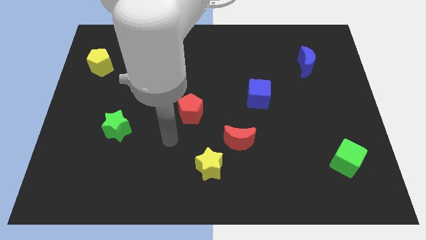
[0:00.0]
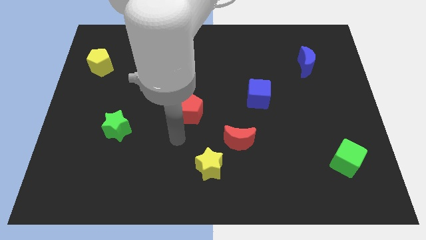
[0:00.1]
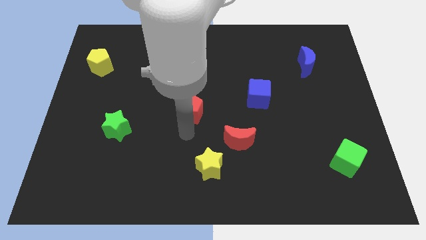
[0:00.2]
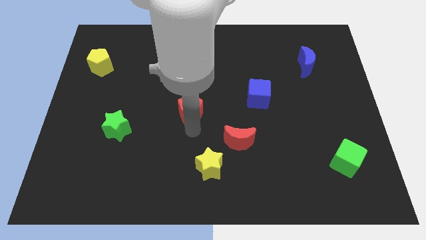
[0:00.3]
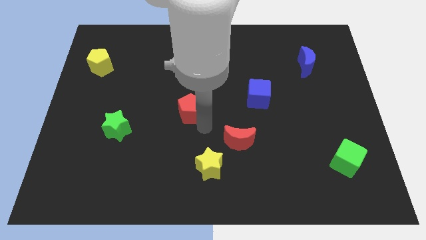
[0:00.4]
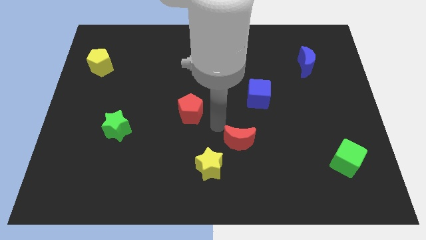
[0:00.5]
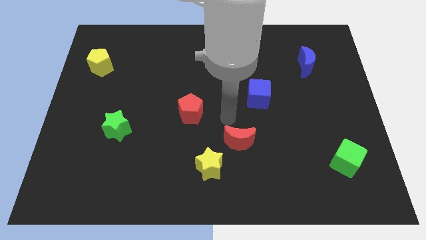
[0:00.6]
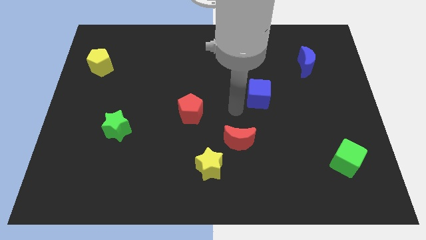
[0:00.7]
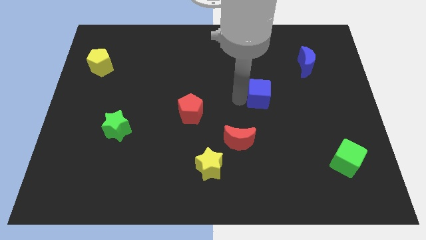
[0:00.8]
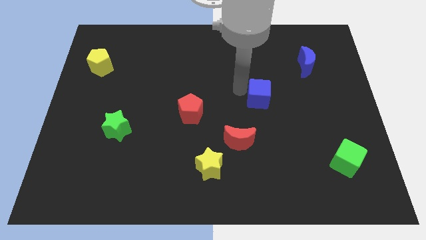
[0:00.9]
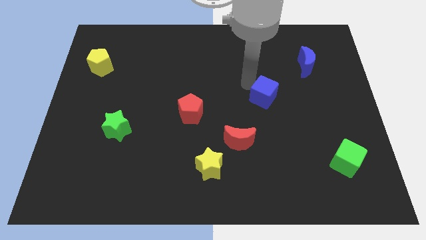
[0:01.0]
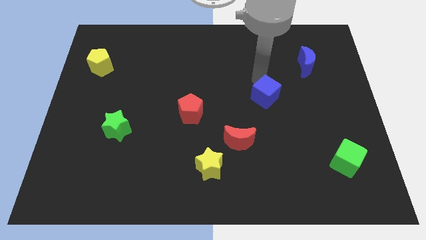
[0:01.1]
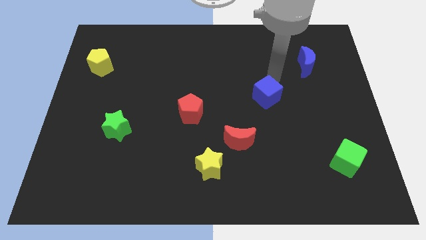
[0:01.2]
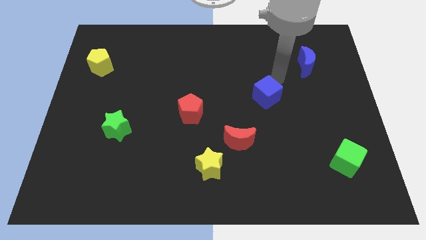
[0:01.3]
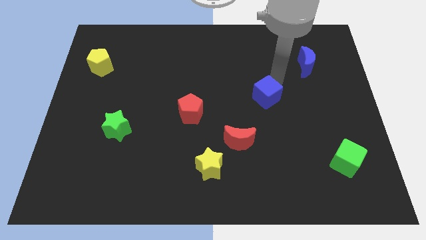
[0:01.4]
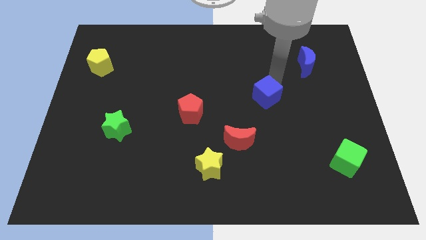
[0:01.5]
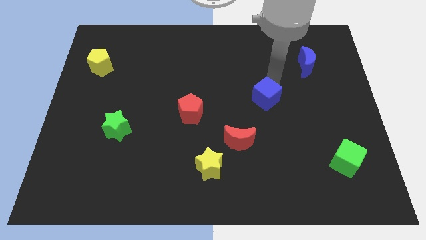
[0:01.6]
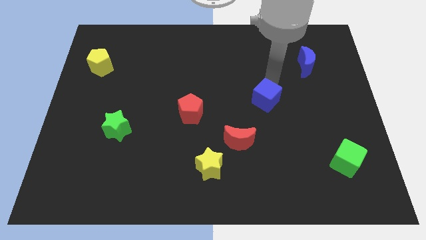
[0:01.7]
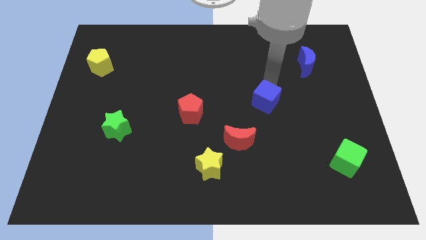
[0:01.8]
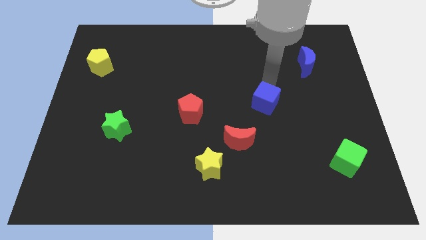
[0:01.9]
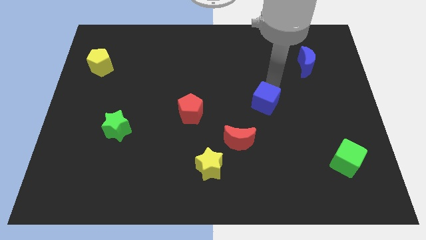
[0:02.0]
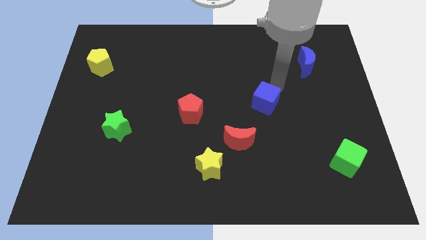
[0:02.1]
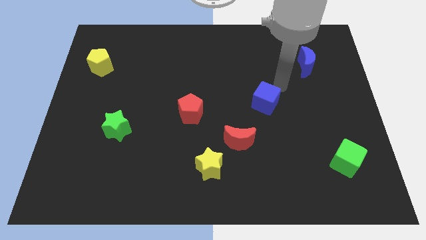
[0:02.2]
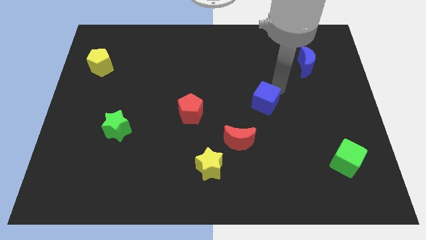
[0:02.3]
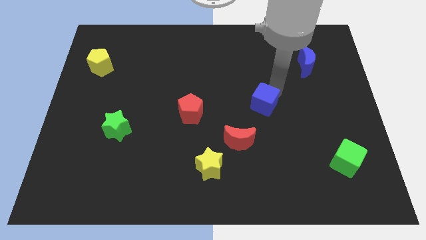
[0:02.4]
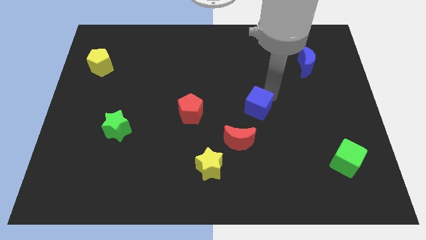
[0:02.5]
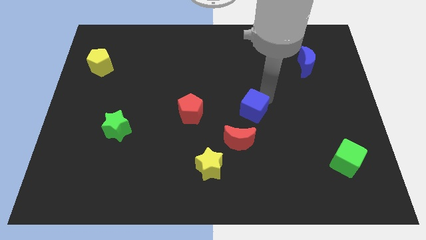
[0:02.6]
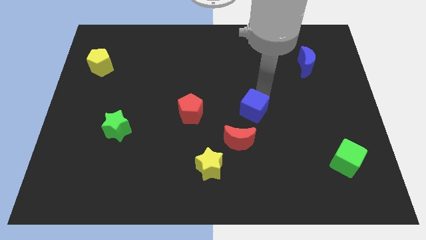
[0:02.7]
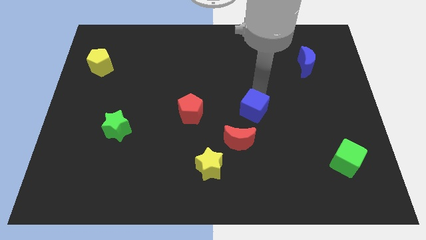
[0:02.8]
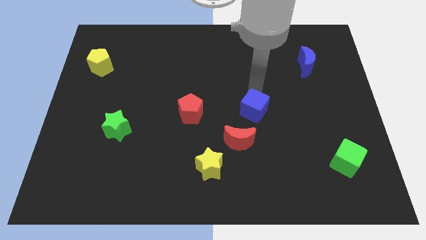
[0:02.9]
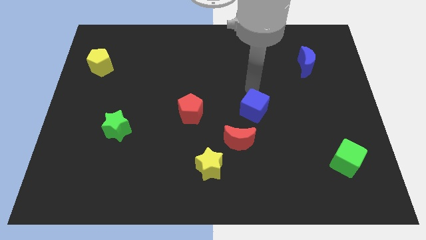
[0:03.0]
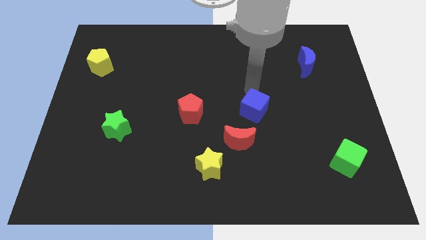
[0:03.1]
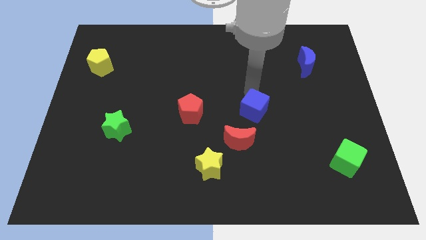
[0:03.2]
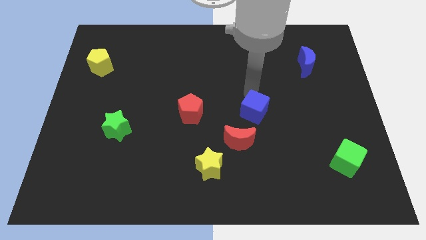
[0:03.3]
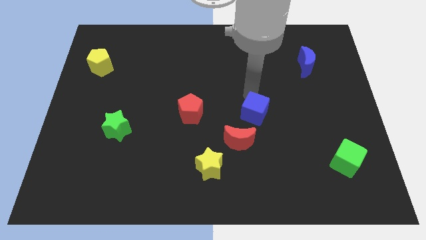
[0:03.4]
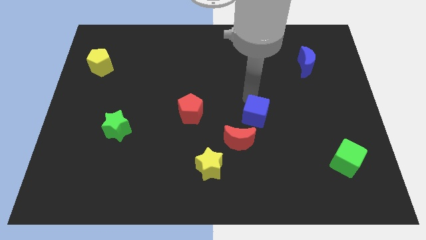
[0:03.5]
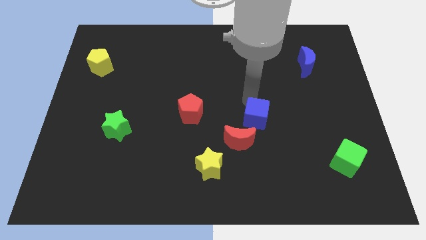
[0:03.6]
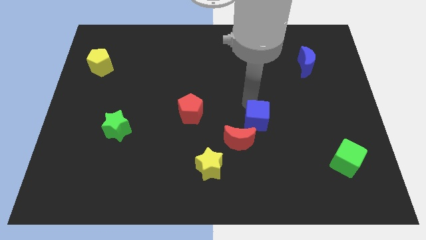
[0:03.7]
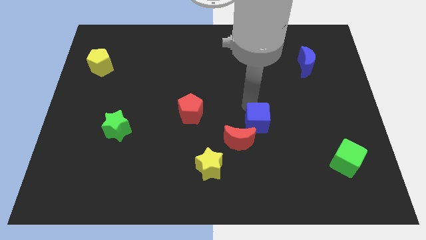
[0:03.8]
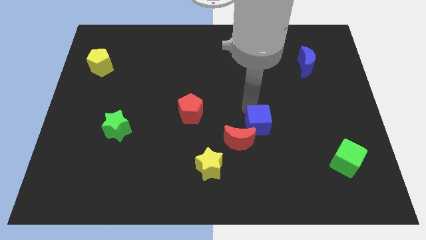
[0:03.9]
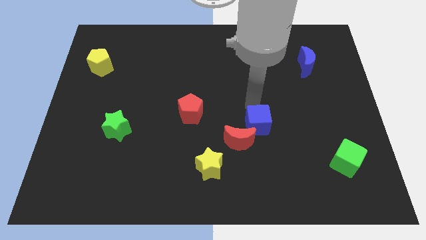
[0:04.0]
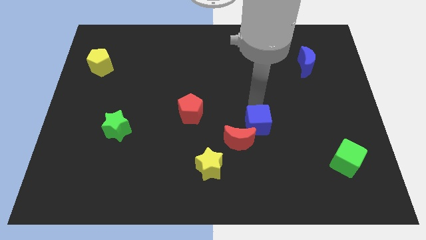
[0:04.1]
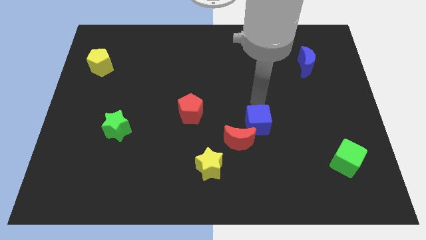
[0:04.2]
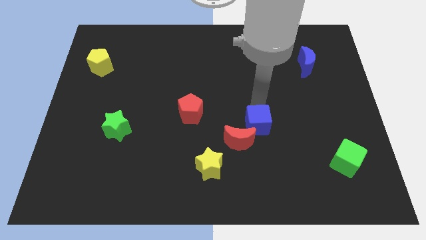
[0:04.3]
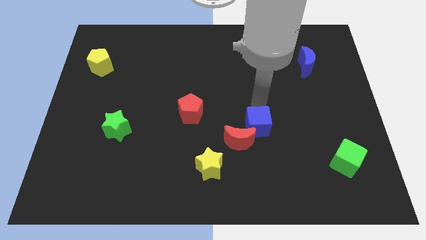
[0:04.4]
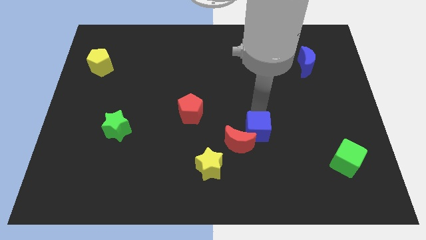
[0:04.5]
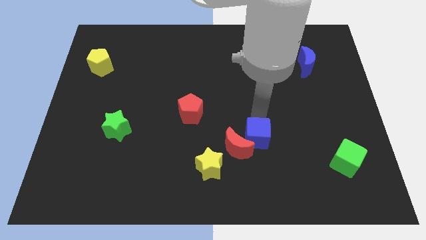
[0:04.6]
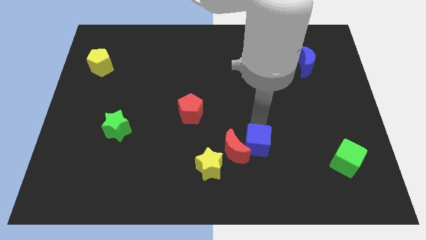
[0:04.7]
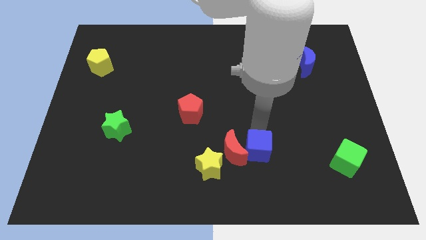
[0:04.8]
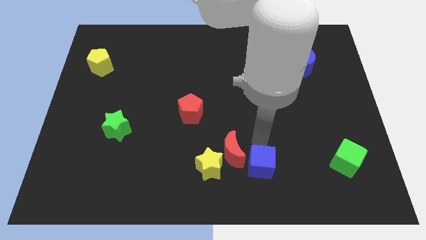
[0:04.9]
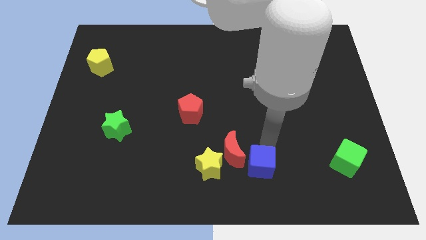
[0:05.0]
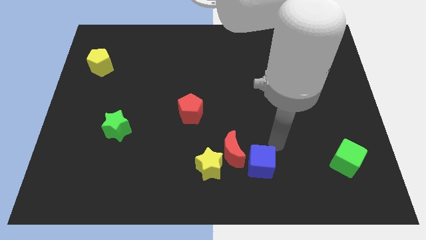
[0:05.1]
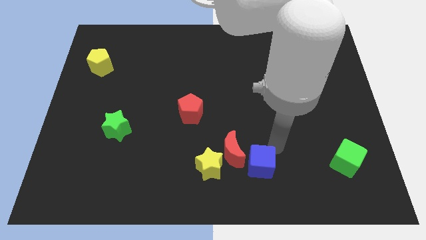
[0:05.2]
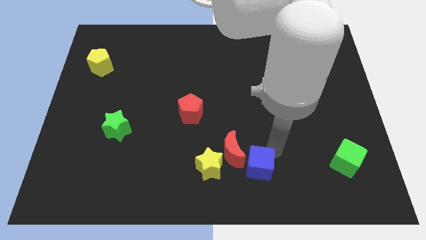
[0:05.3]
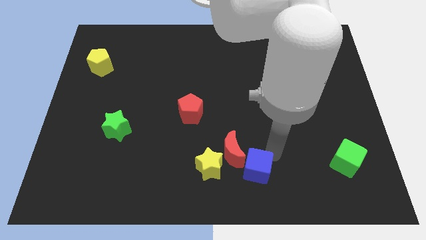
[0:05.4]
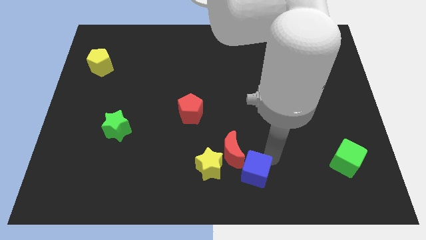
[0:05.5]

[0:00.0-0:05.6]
put the blue cube to the bottom of the red moon

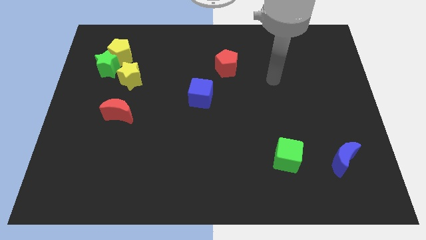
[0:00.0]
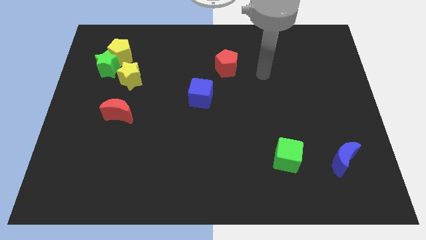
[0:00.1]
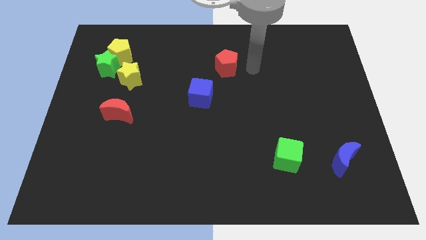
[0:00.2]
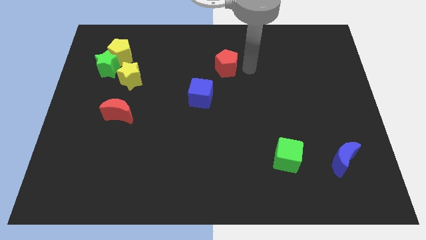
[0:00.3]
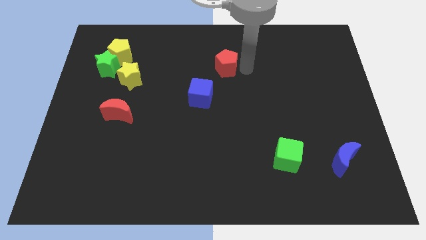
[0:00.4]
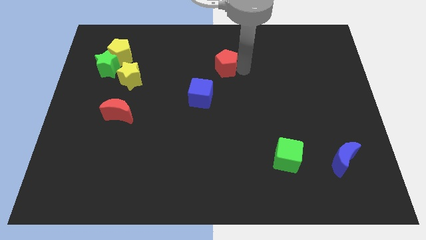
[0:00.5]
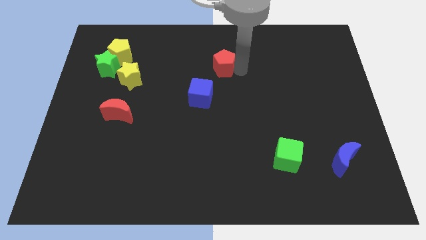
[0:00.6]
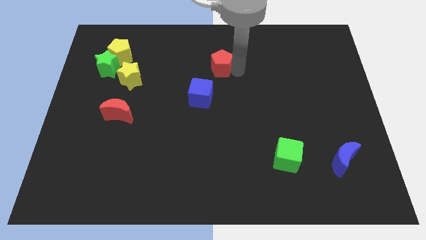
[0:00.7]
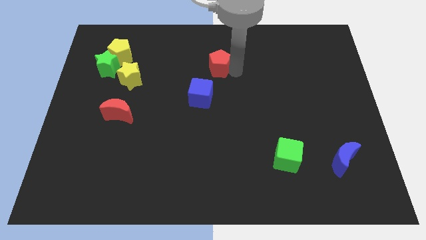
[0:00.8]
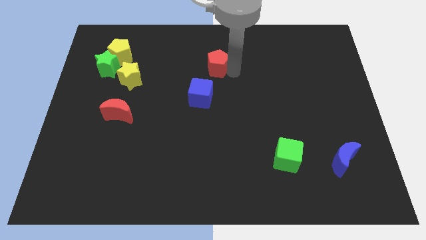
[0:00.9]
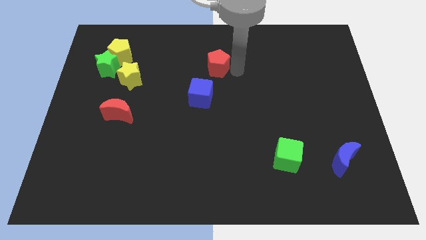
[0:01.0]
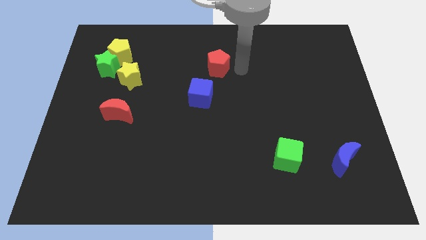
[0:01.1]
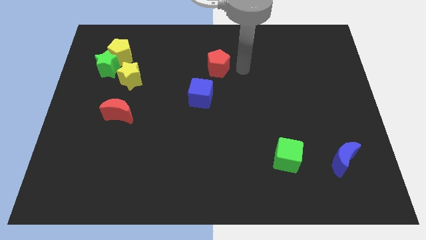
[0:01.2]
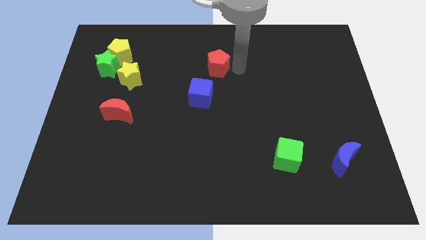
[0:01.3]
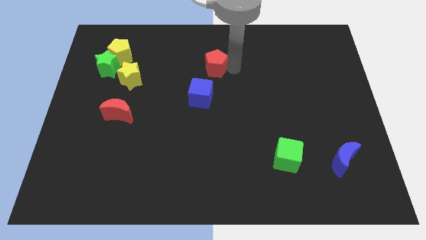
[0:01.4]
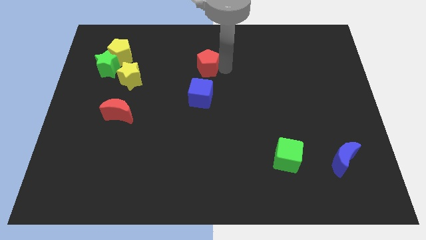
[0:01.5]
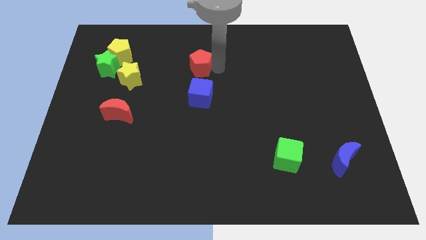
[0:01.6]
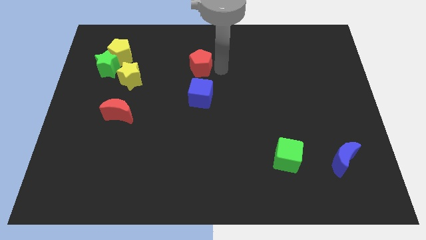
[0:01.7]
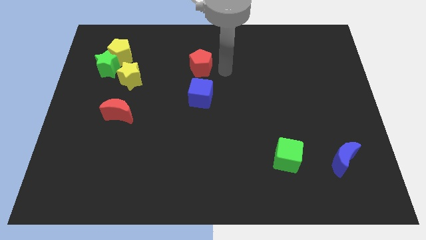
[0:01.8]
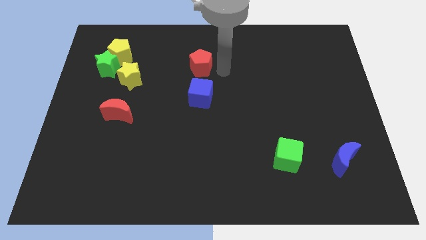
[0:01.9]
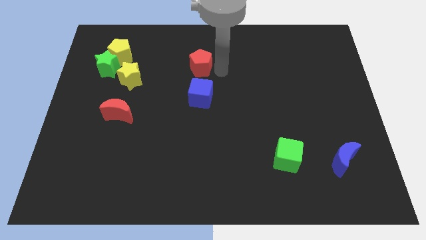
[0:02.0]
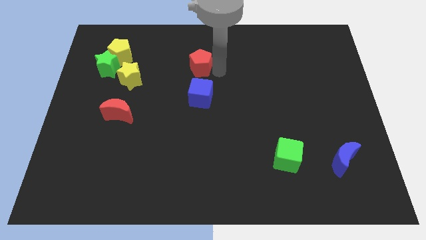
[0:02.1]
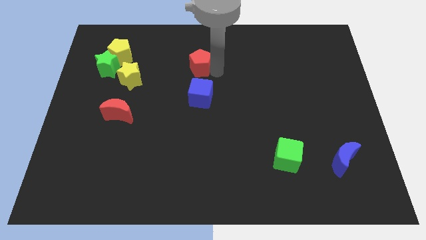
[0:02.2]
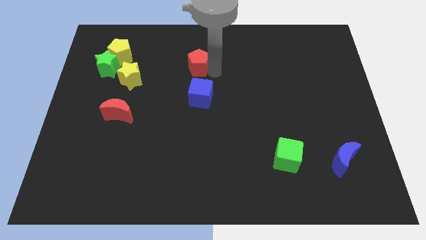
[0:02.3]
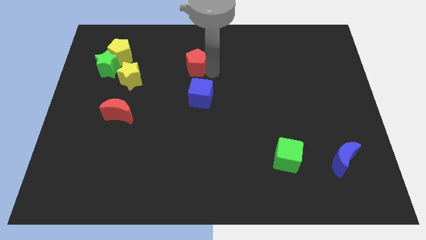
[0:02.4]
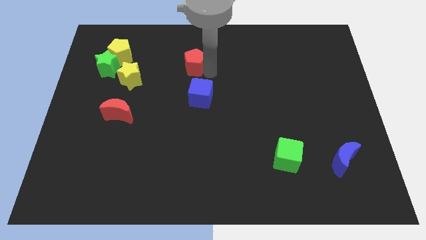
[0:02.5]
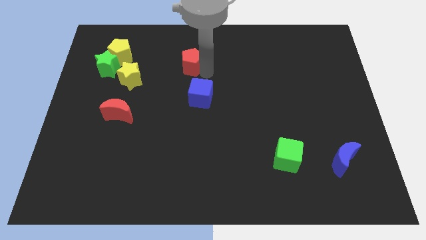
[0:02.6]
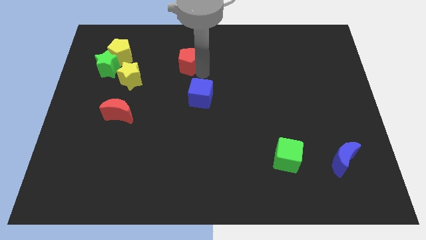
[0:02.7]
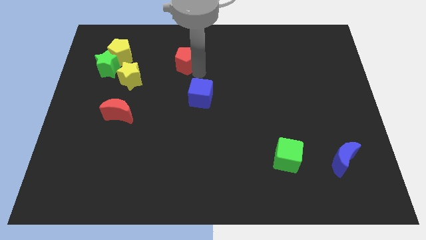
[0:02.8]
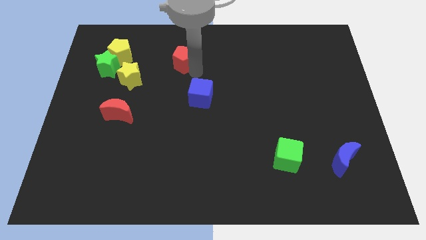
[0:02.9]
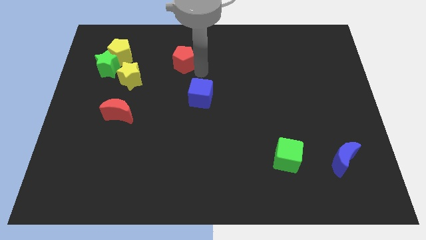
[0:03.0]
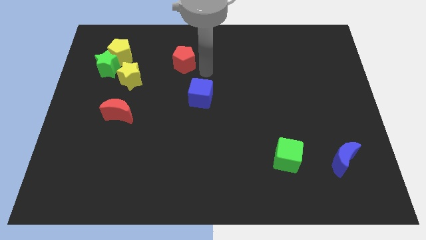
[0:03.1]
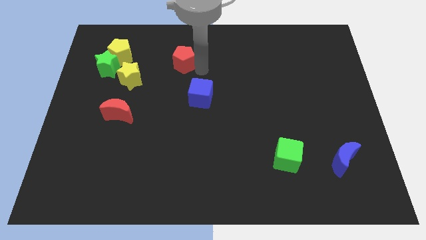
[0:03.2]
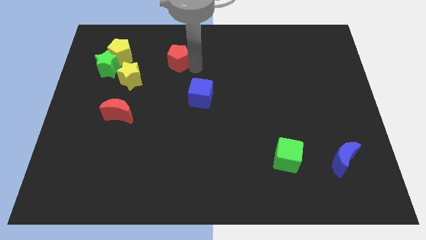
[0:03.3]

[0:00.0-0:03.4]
slide the red pentagon to the right side of the yellow pentagon
